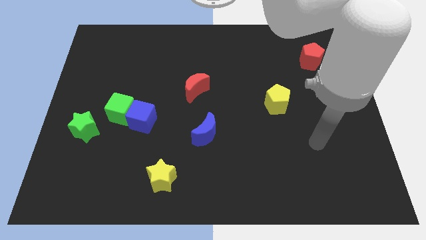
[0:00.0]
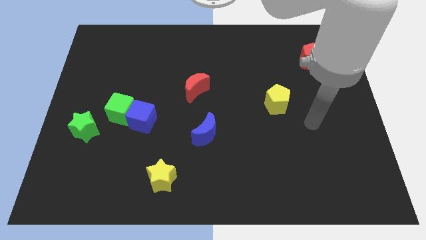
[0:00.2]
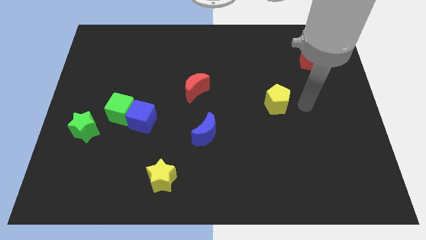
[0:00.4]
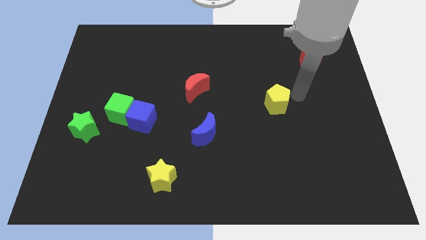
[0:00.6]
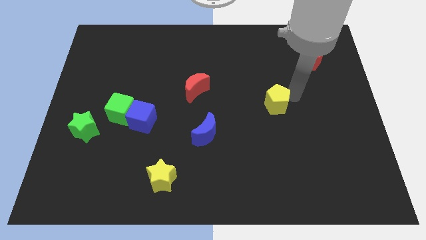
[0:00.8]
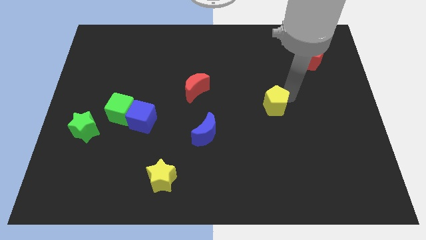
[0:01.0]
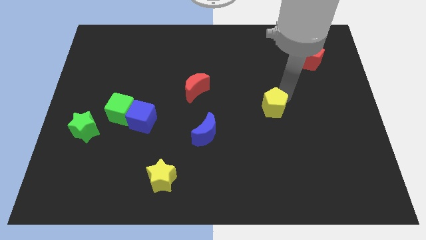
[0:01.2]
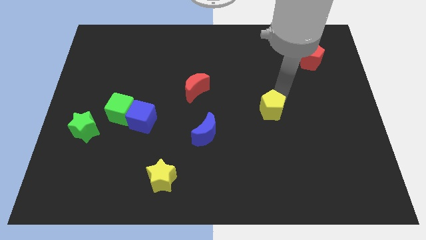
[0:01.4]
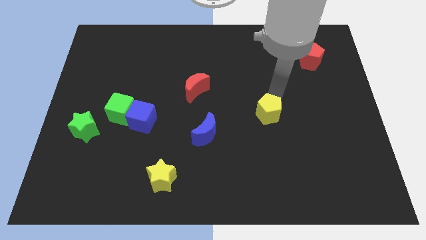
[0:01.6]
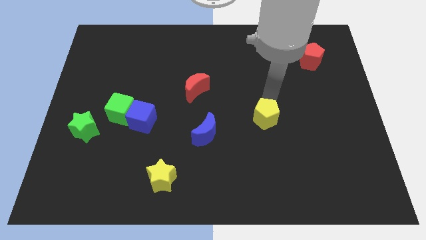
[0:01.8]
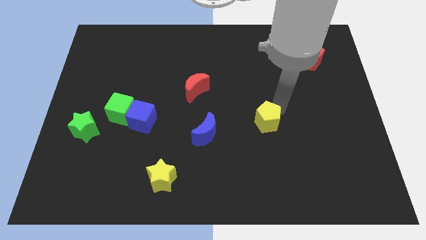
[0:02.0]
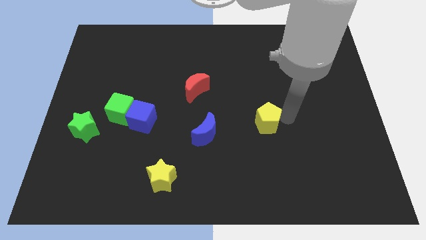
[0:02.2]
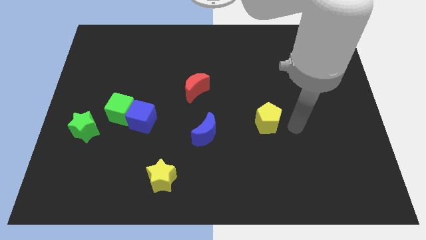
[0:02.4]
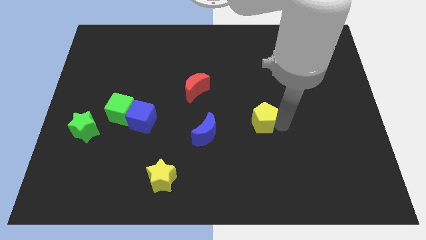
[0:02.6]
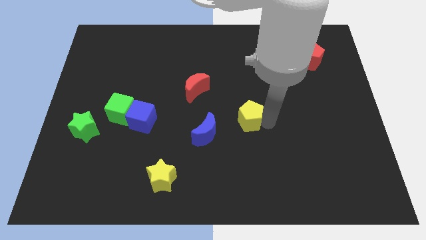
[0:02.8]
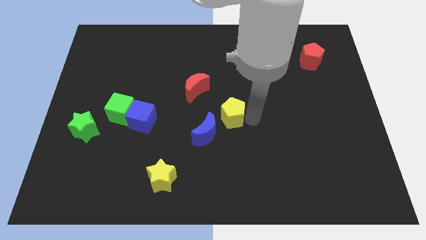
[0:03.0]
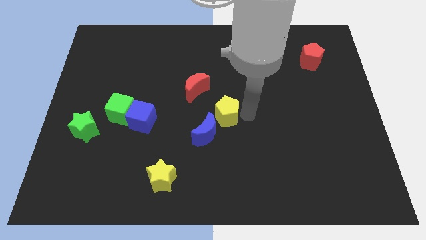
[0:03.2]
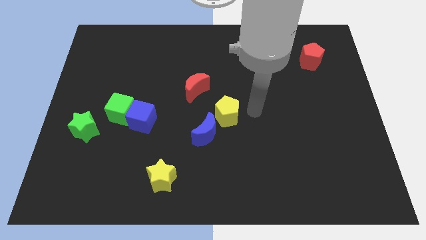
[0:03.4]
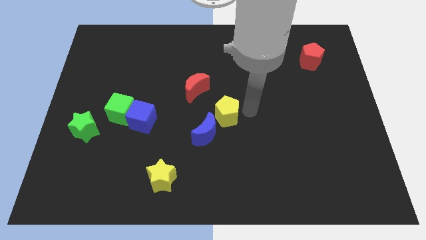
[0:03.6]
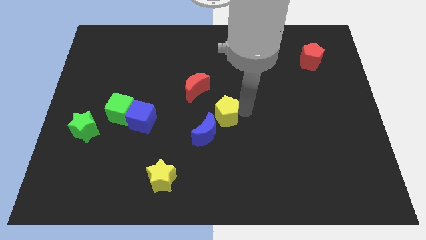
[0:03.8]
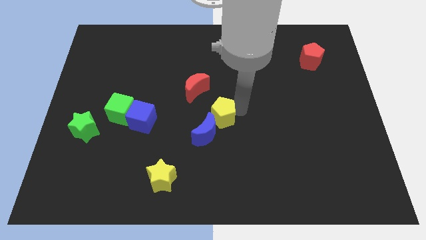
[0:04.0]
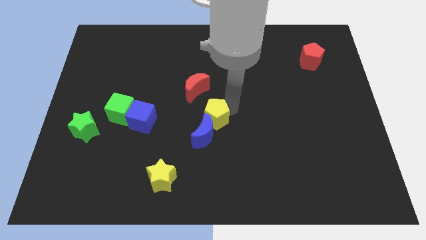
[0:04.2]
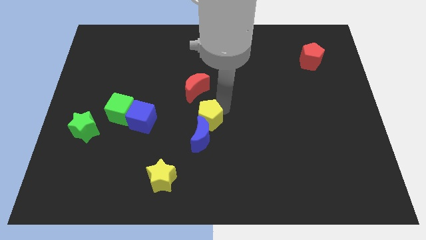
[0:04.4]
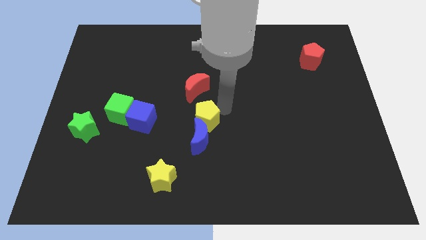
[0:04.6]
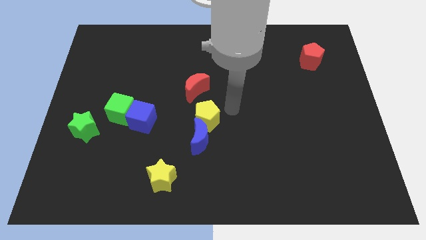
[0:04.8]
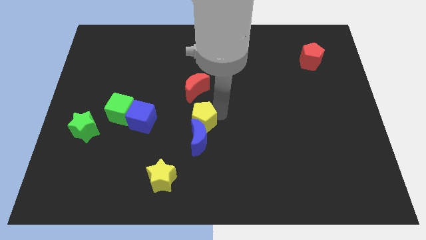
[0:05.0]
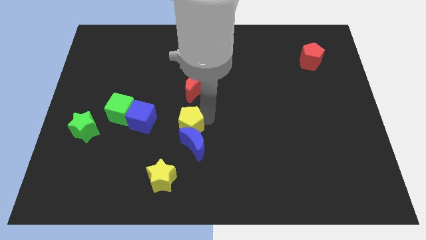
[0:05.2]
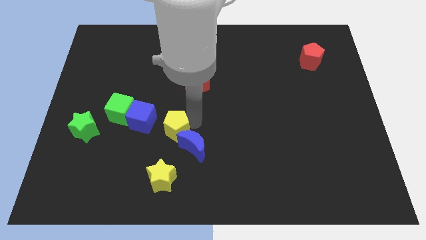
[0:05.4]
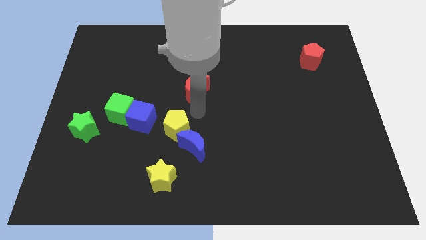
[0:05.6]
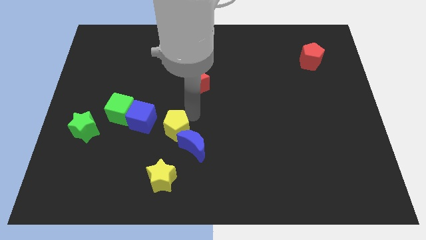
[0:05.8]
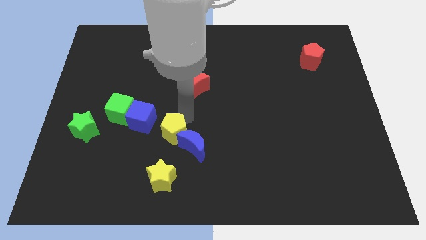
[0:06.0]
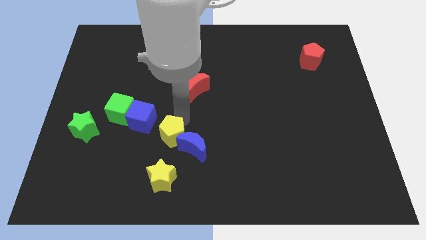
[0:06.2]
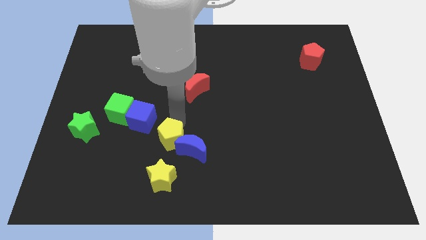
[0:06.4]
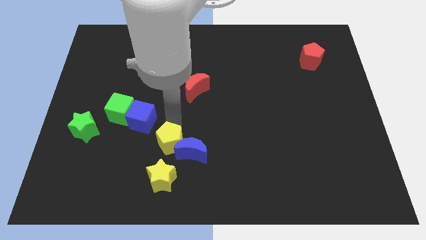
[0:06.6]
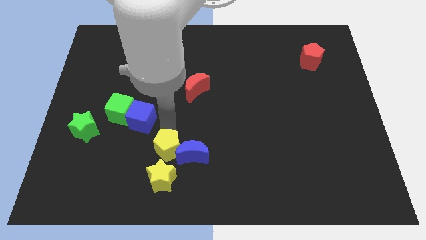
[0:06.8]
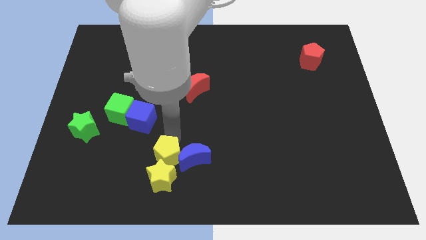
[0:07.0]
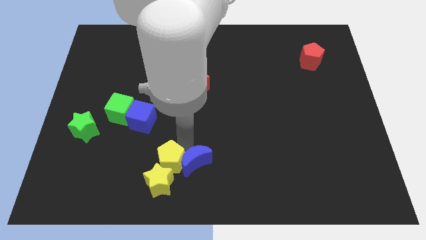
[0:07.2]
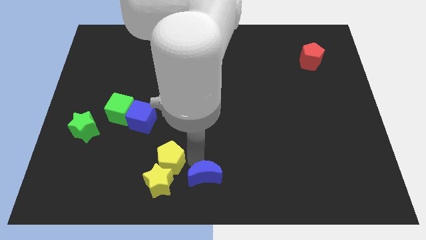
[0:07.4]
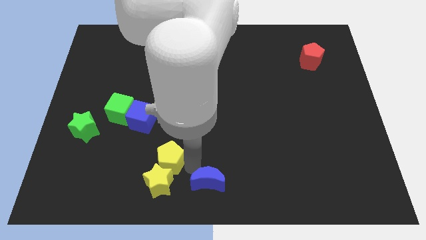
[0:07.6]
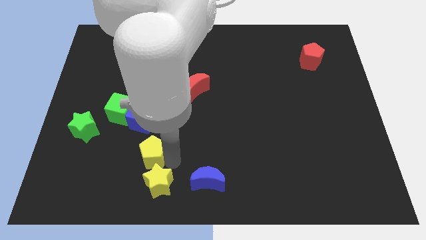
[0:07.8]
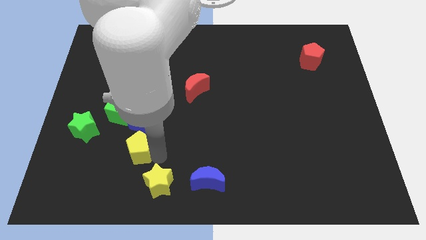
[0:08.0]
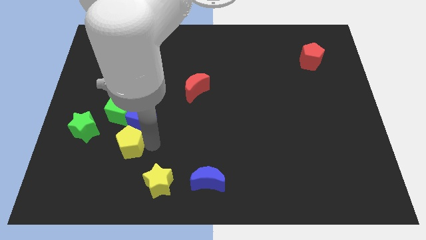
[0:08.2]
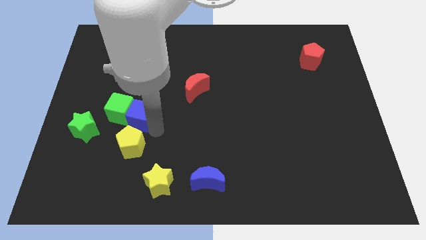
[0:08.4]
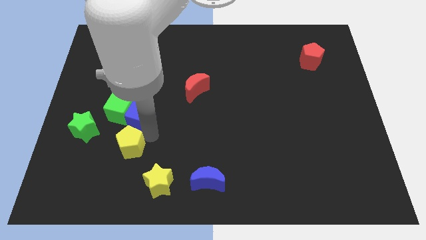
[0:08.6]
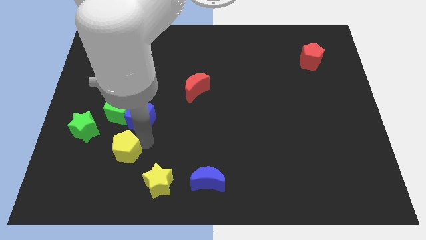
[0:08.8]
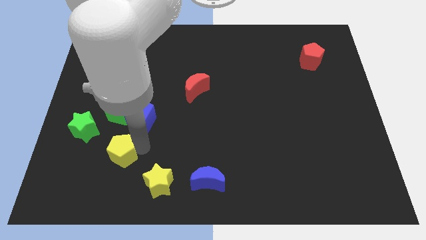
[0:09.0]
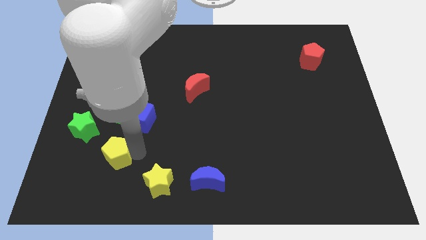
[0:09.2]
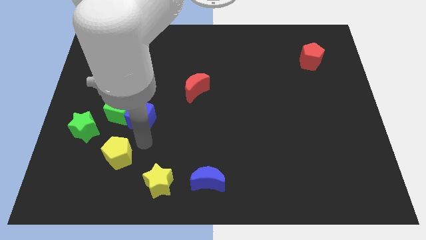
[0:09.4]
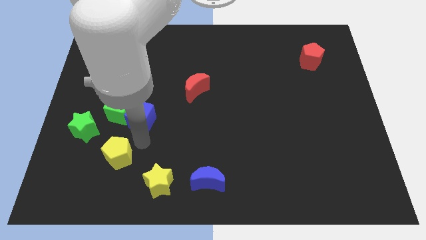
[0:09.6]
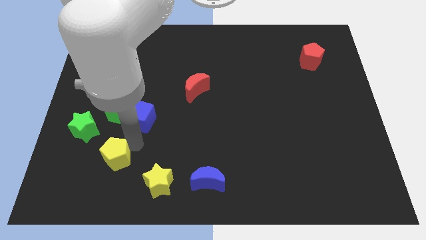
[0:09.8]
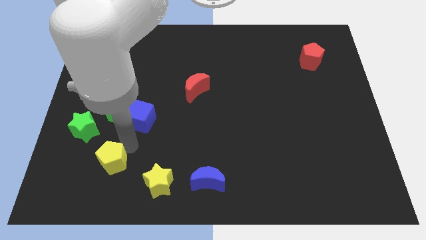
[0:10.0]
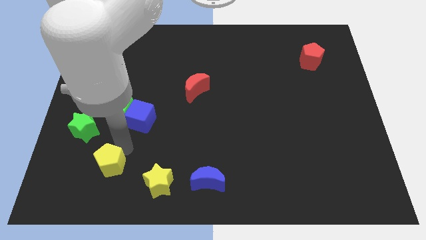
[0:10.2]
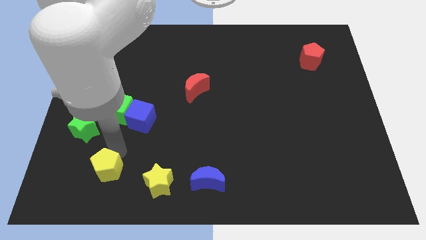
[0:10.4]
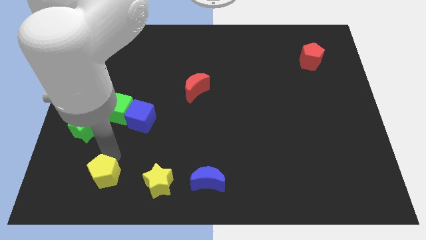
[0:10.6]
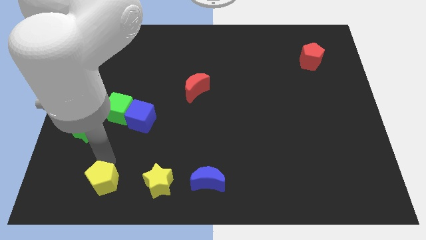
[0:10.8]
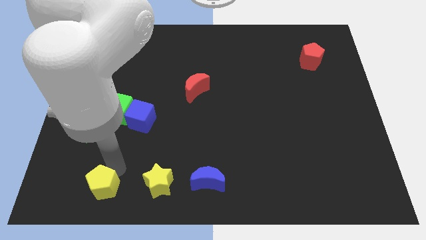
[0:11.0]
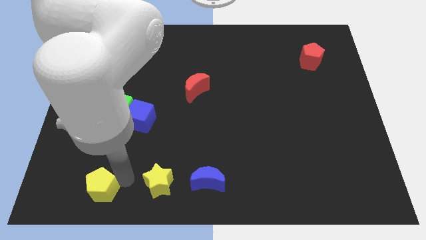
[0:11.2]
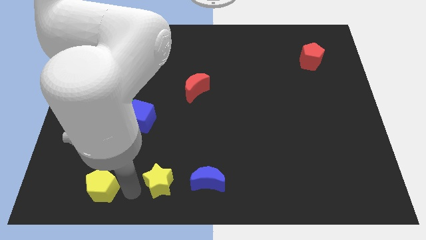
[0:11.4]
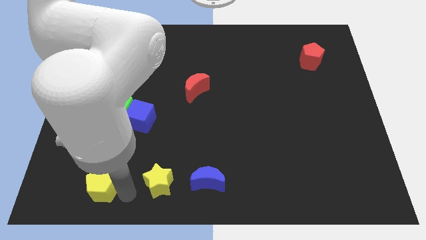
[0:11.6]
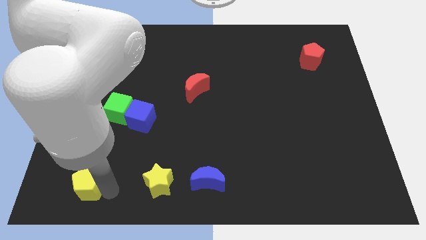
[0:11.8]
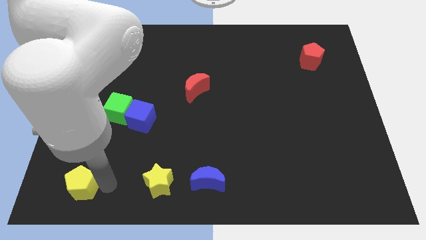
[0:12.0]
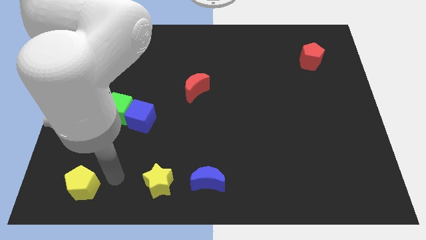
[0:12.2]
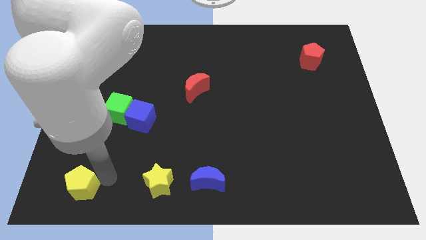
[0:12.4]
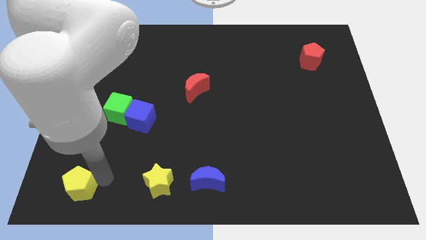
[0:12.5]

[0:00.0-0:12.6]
put the yellow pentagon to the bottom left corner

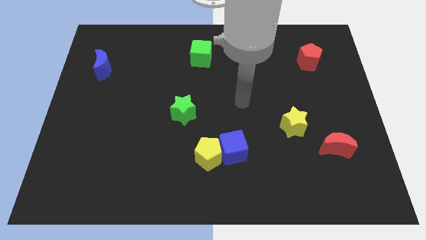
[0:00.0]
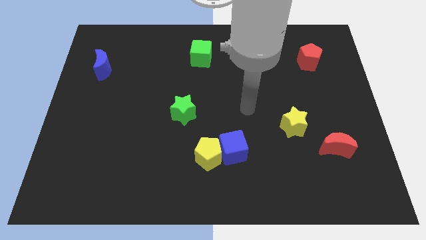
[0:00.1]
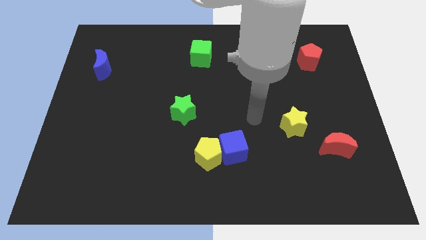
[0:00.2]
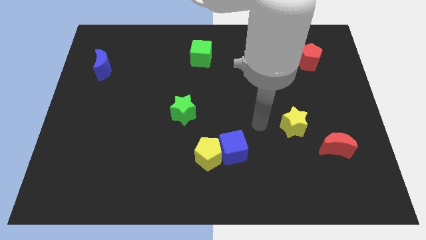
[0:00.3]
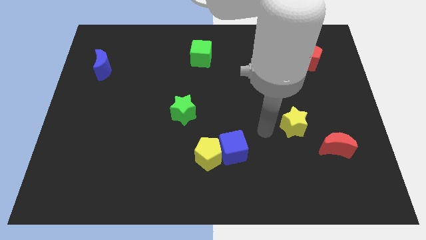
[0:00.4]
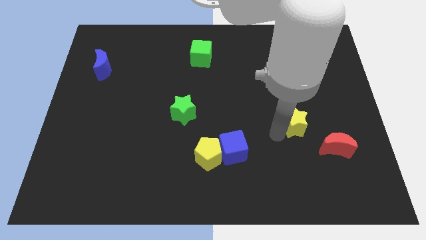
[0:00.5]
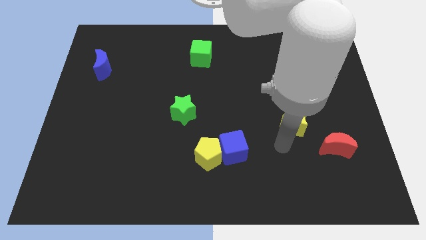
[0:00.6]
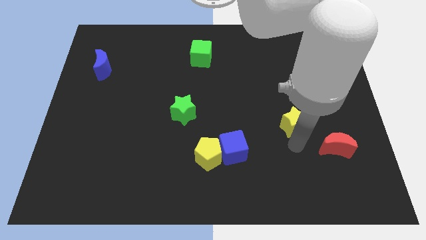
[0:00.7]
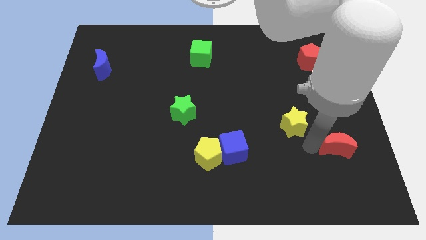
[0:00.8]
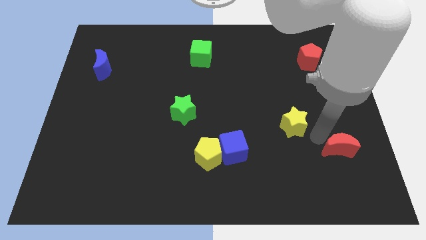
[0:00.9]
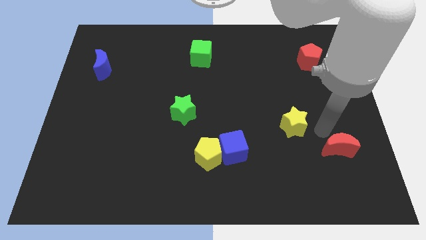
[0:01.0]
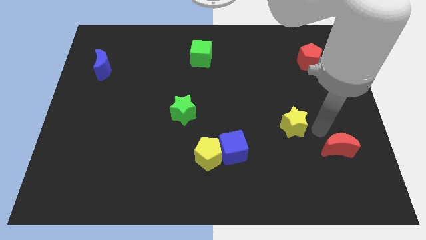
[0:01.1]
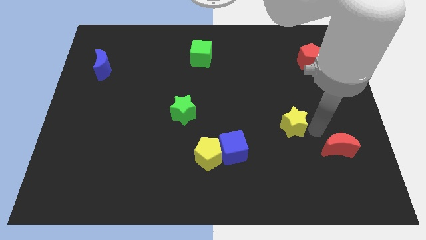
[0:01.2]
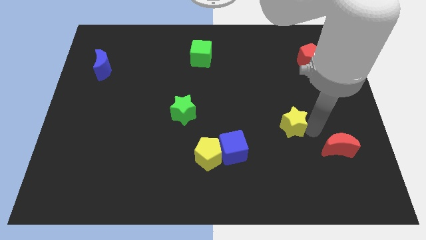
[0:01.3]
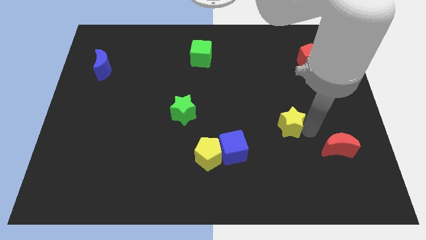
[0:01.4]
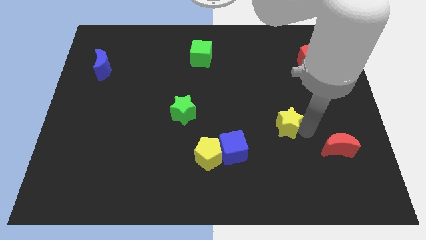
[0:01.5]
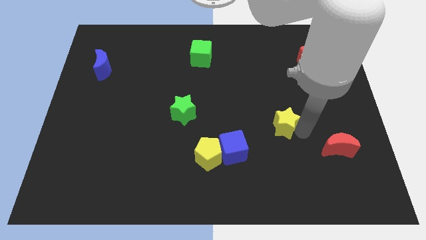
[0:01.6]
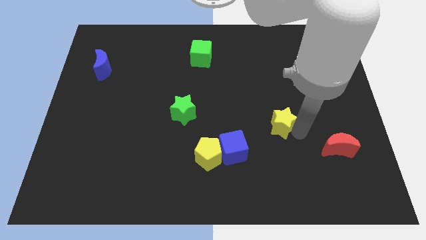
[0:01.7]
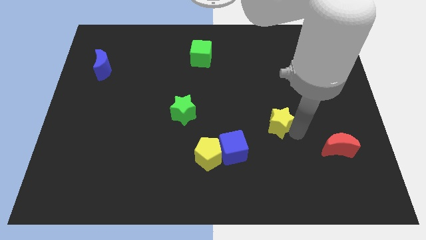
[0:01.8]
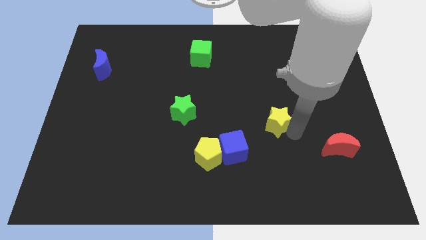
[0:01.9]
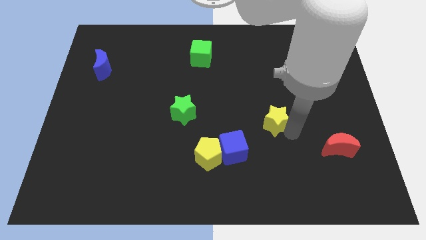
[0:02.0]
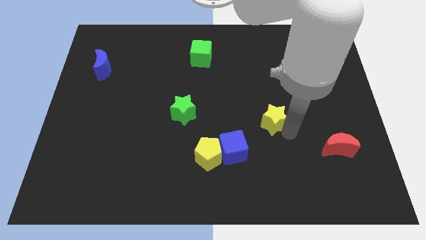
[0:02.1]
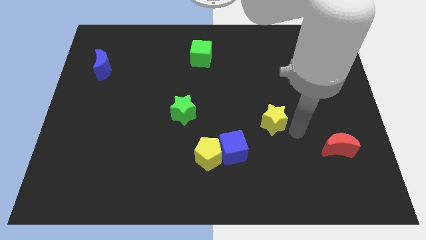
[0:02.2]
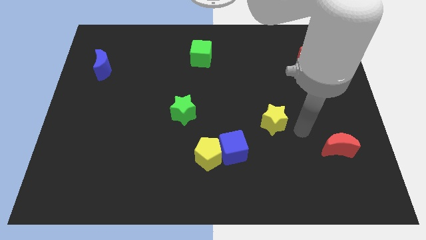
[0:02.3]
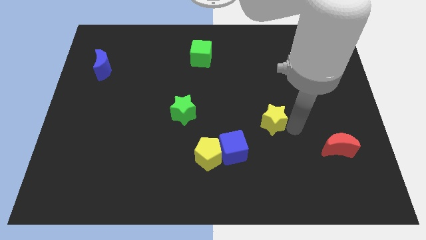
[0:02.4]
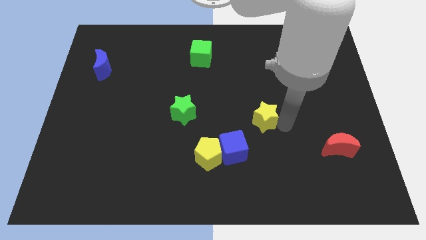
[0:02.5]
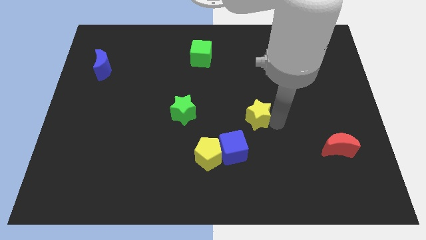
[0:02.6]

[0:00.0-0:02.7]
push the yellow star to the center of the board
